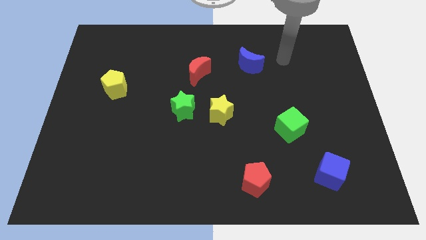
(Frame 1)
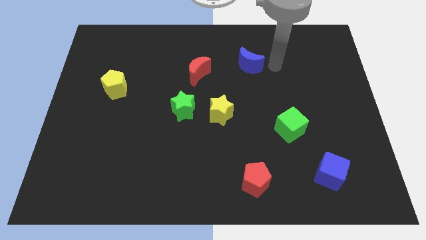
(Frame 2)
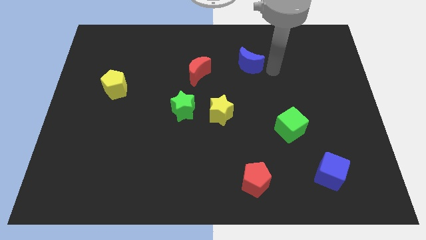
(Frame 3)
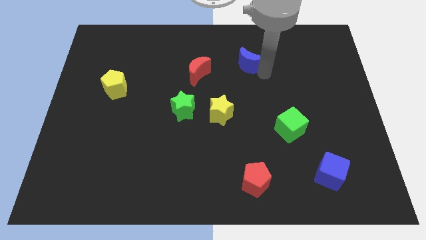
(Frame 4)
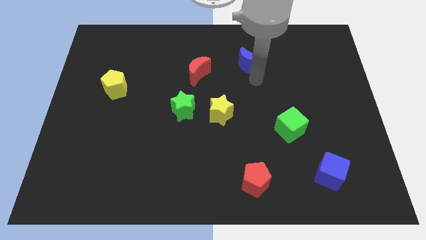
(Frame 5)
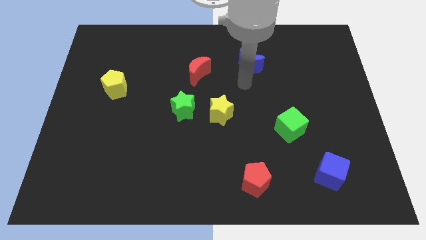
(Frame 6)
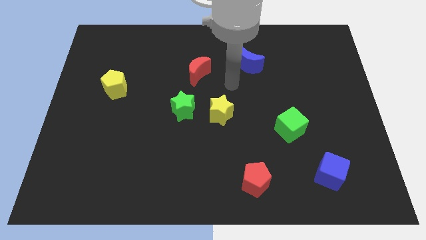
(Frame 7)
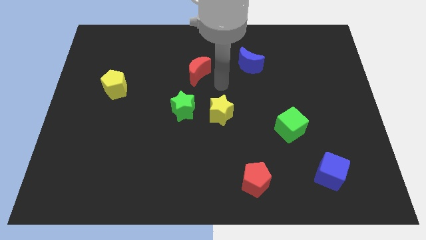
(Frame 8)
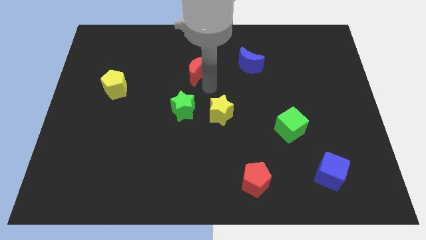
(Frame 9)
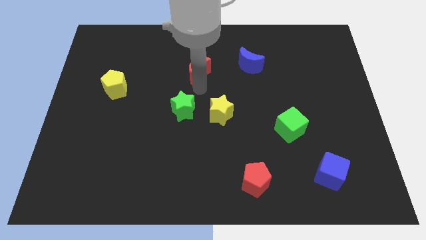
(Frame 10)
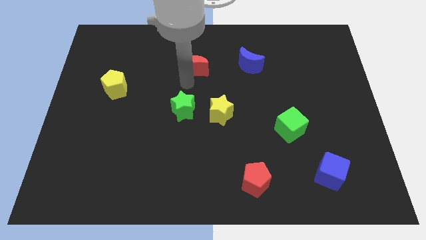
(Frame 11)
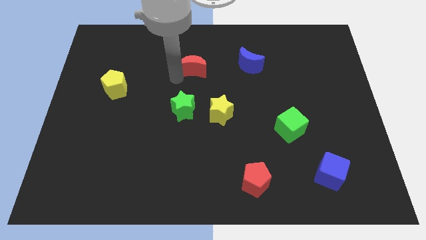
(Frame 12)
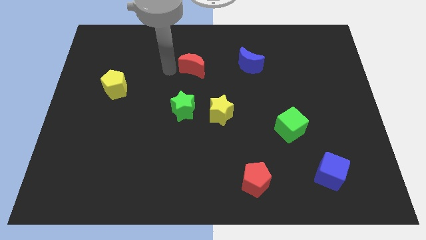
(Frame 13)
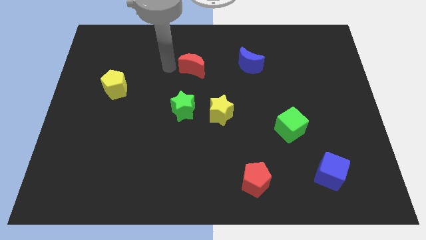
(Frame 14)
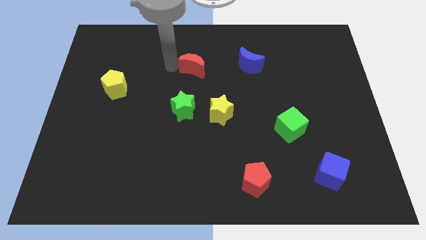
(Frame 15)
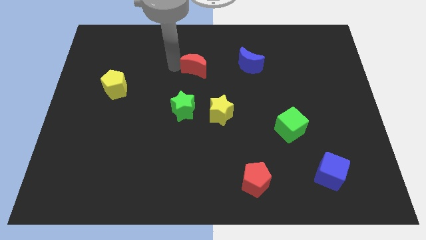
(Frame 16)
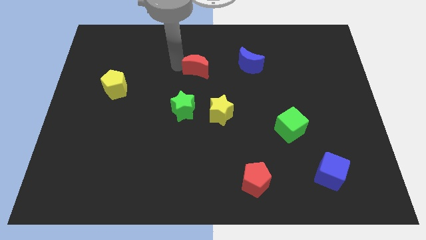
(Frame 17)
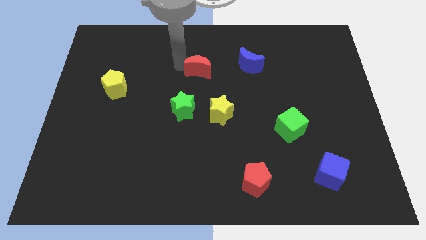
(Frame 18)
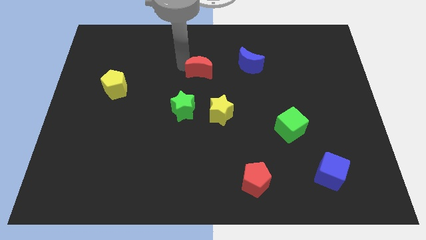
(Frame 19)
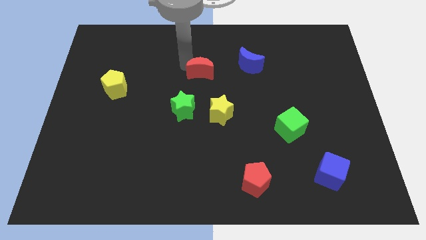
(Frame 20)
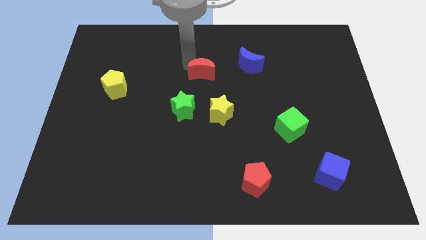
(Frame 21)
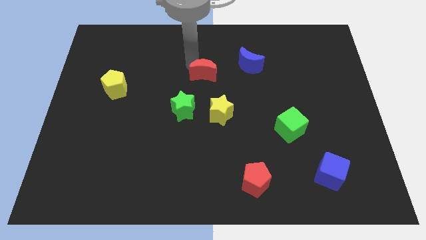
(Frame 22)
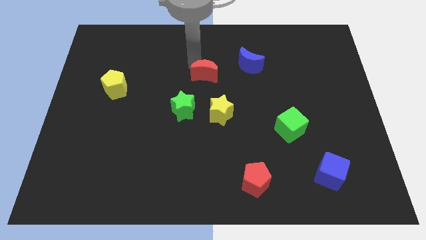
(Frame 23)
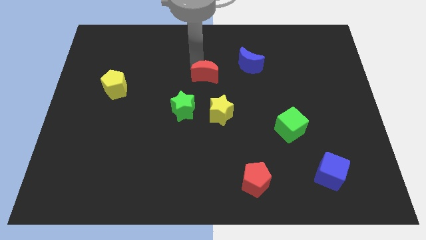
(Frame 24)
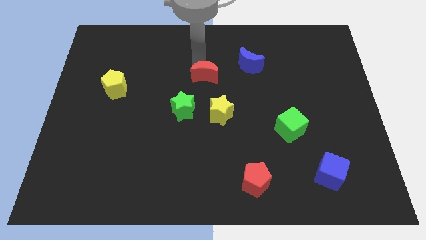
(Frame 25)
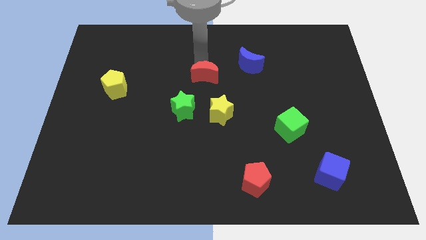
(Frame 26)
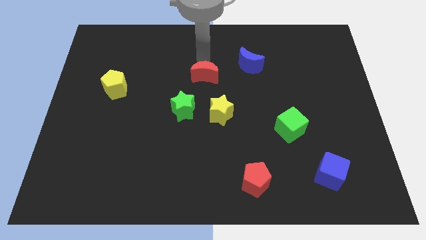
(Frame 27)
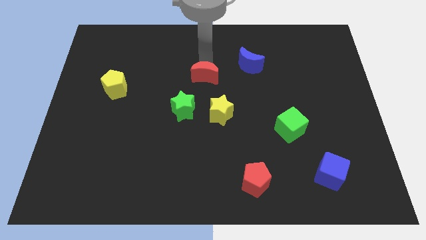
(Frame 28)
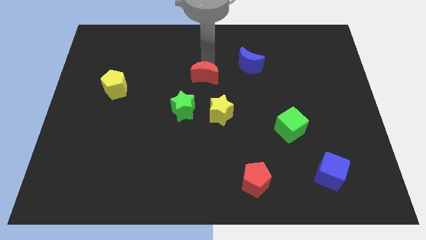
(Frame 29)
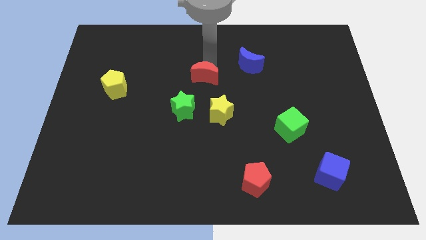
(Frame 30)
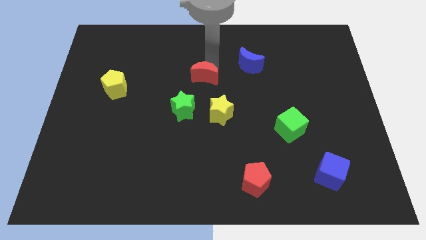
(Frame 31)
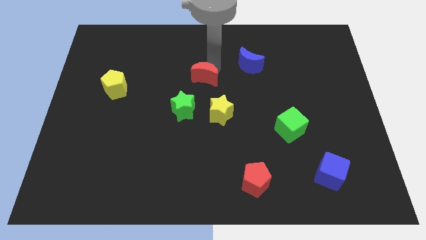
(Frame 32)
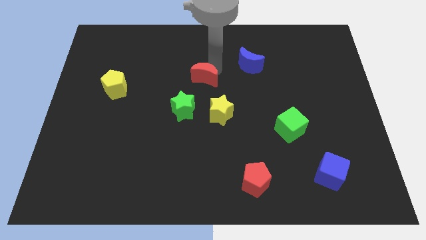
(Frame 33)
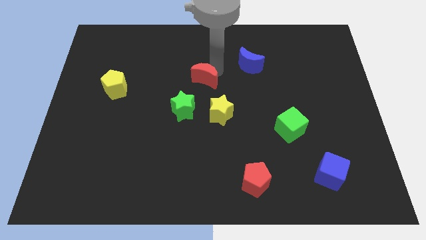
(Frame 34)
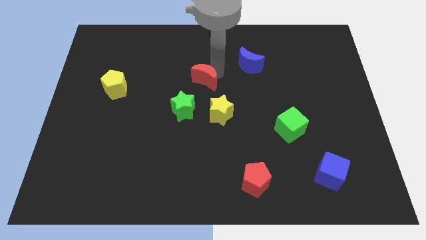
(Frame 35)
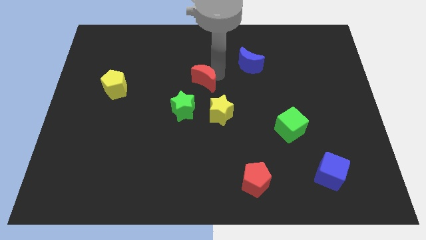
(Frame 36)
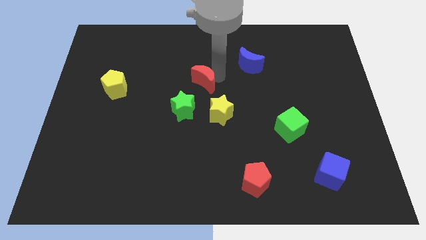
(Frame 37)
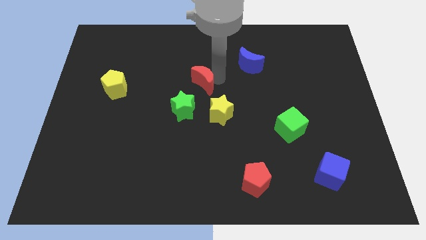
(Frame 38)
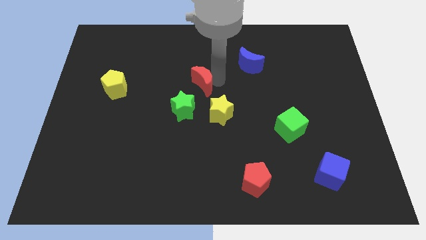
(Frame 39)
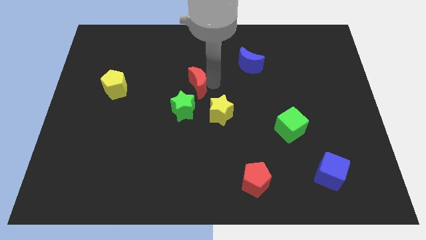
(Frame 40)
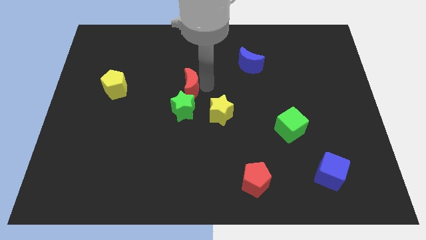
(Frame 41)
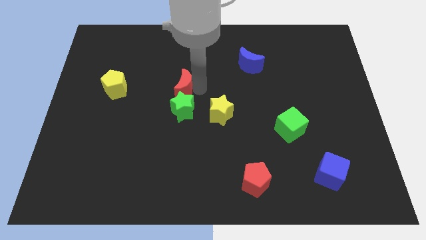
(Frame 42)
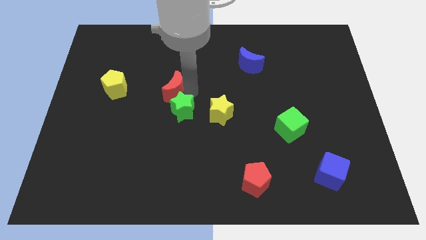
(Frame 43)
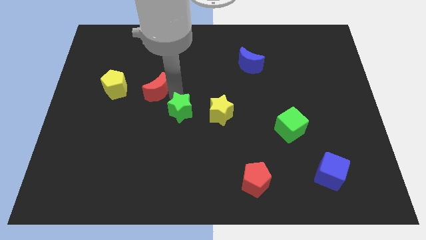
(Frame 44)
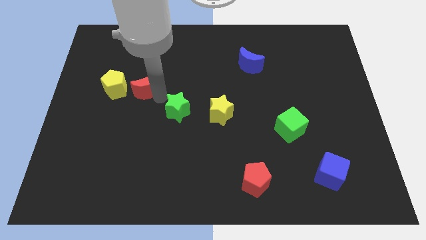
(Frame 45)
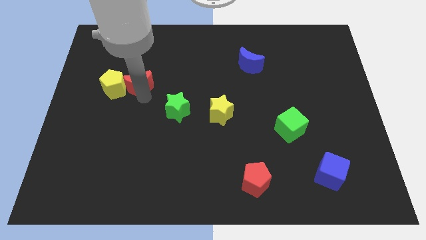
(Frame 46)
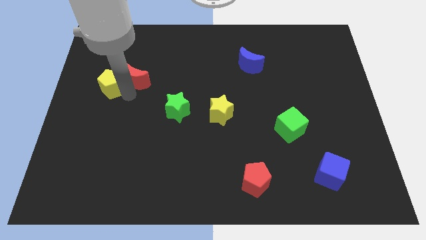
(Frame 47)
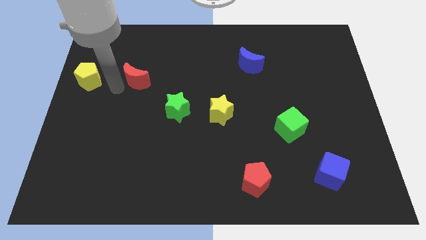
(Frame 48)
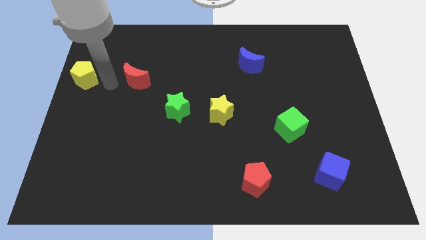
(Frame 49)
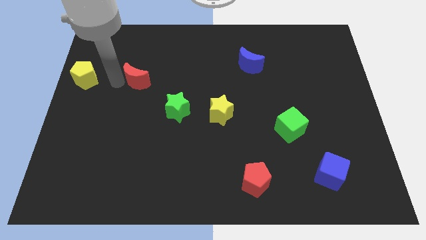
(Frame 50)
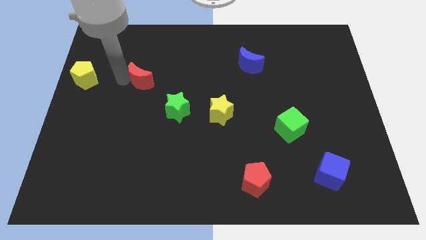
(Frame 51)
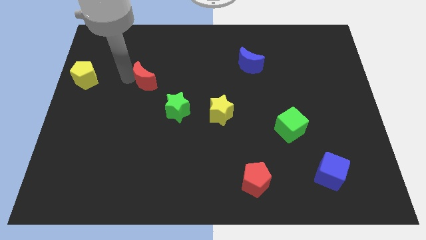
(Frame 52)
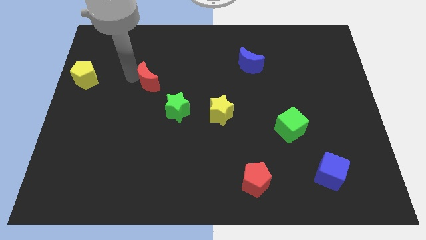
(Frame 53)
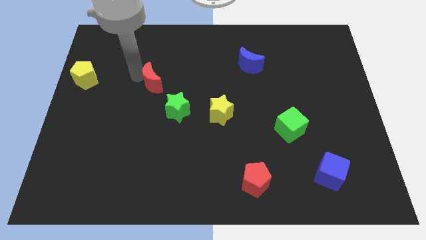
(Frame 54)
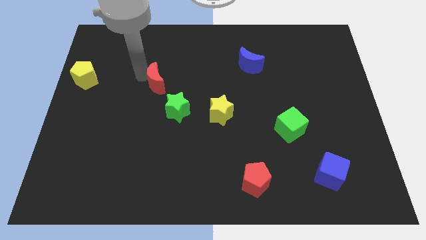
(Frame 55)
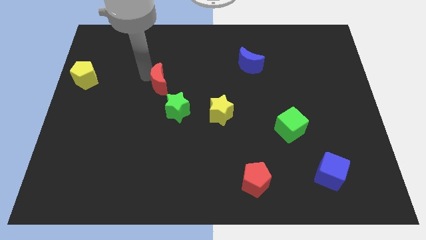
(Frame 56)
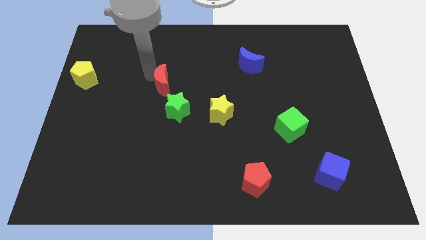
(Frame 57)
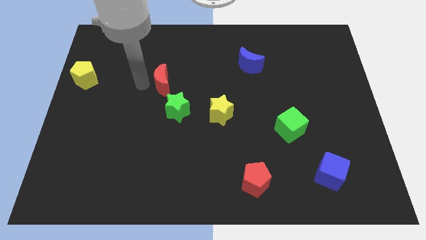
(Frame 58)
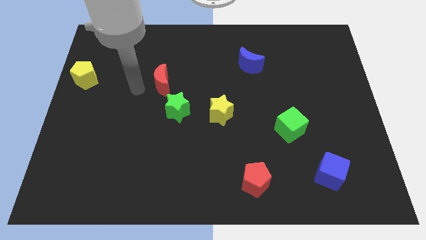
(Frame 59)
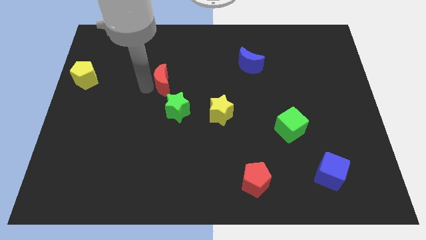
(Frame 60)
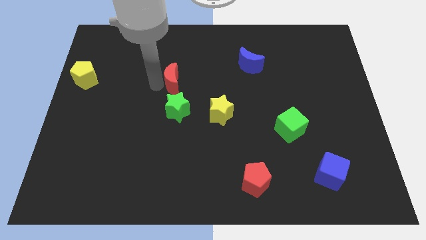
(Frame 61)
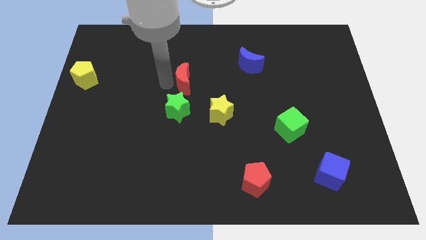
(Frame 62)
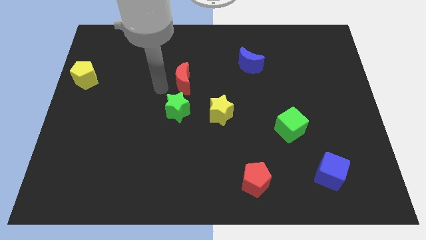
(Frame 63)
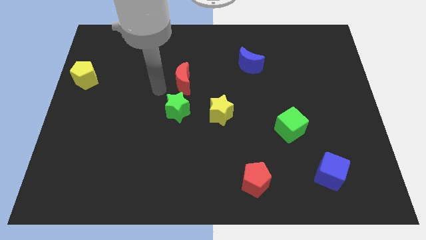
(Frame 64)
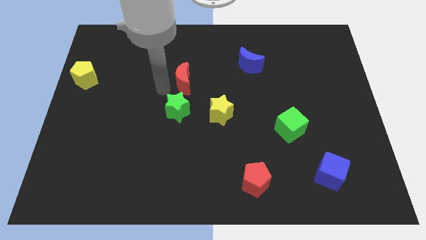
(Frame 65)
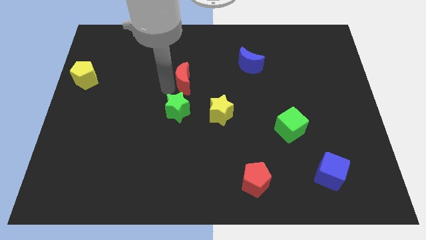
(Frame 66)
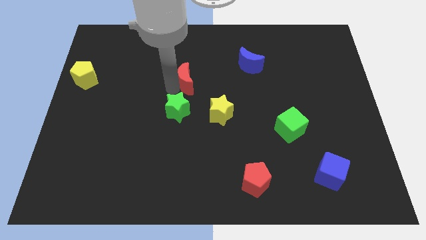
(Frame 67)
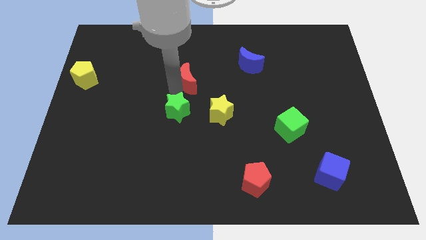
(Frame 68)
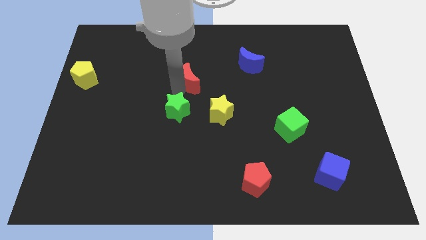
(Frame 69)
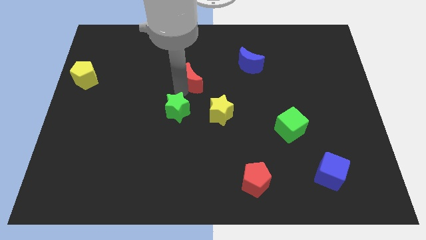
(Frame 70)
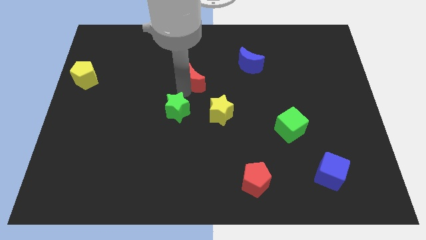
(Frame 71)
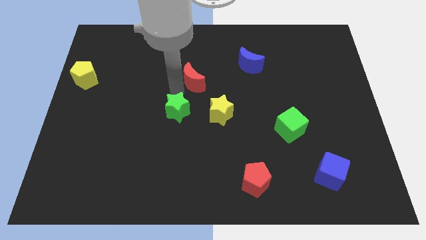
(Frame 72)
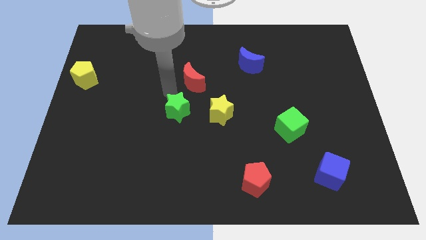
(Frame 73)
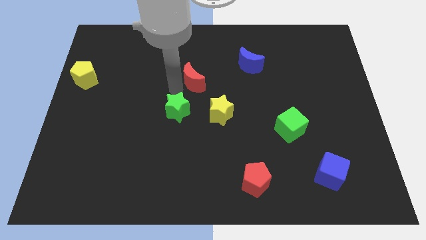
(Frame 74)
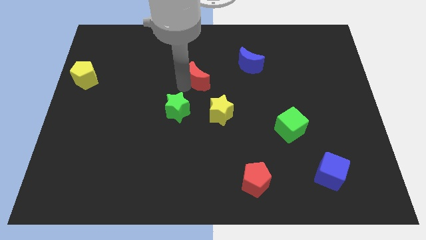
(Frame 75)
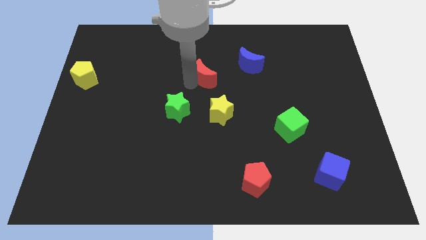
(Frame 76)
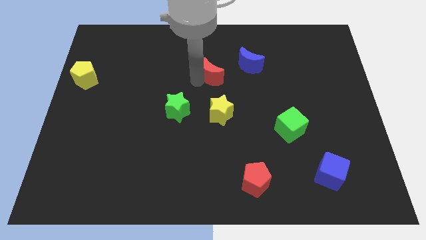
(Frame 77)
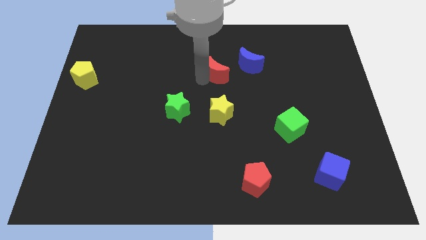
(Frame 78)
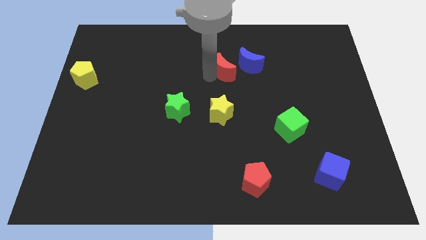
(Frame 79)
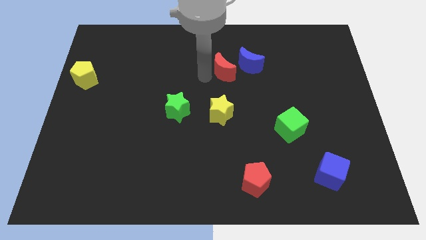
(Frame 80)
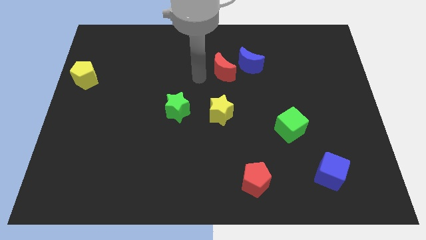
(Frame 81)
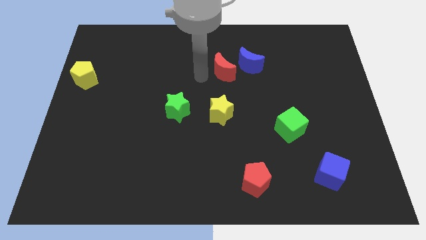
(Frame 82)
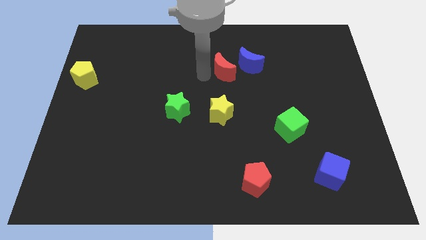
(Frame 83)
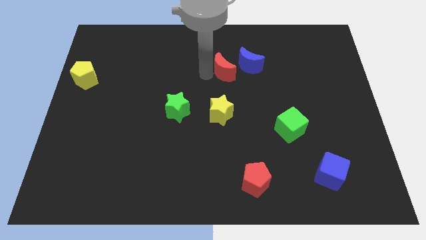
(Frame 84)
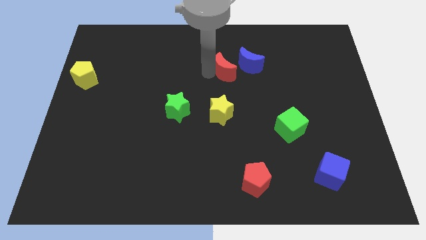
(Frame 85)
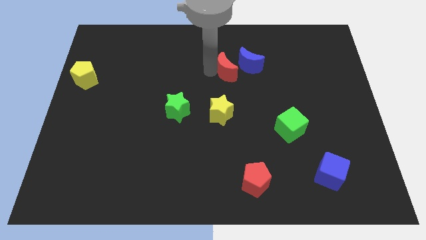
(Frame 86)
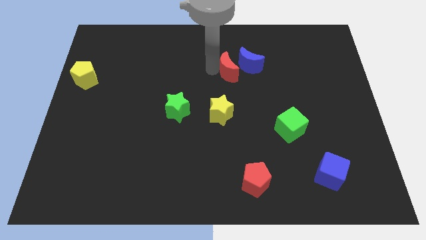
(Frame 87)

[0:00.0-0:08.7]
push the red moon towards the blue moon
